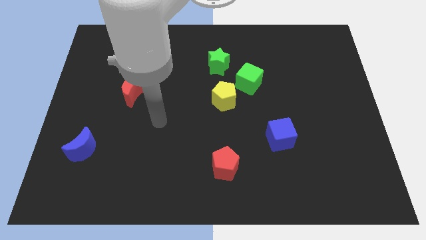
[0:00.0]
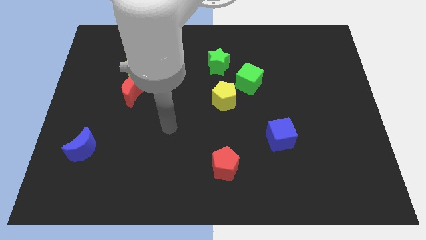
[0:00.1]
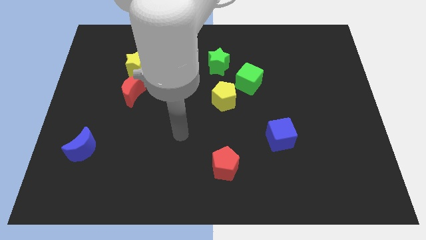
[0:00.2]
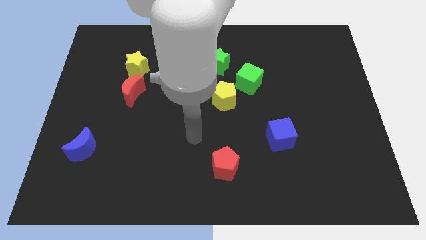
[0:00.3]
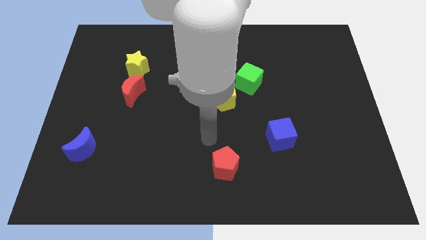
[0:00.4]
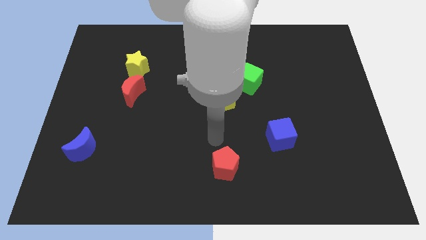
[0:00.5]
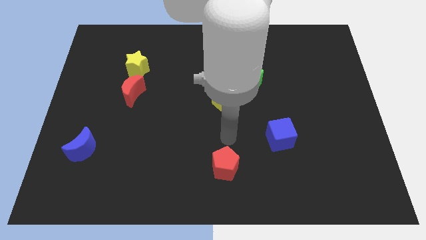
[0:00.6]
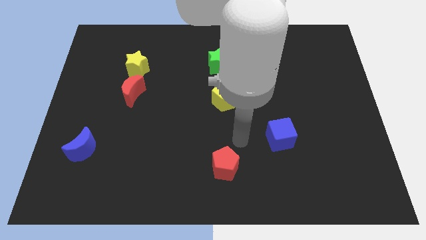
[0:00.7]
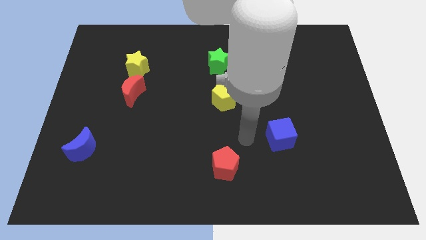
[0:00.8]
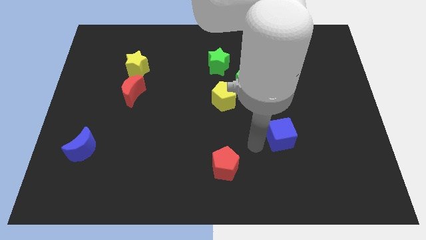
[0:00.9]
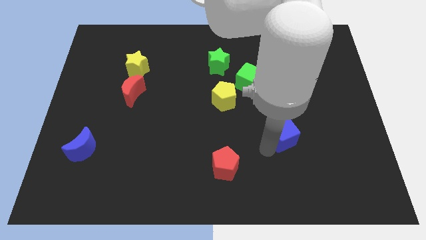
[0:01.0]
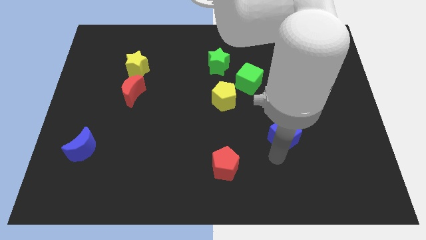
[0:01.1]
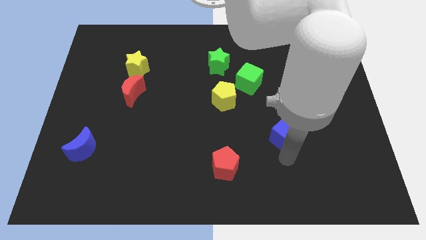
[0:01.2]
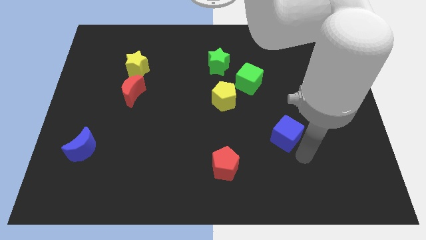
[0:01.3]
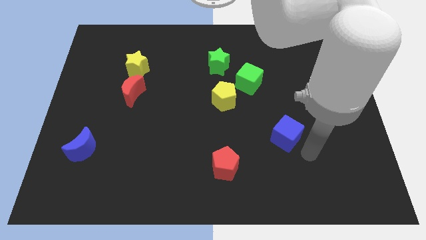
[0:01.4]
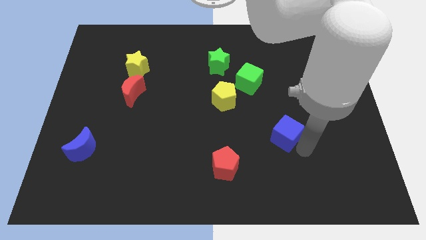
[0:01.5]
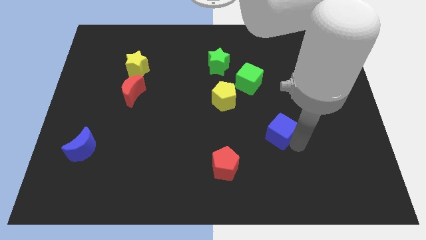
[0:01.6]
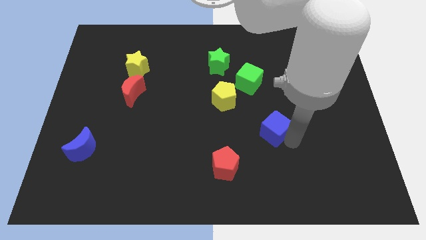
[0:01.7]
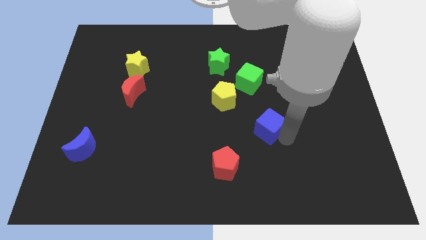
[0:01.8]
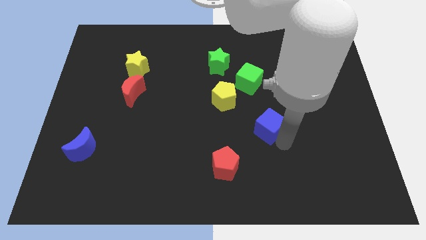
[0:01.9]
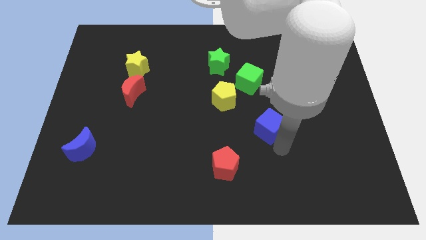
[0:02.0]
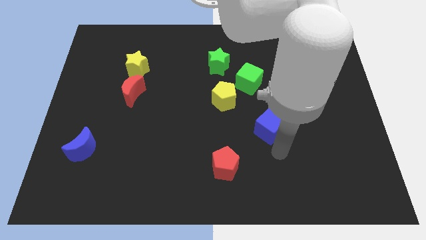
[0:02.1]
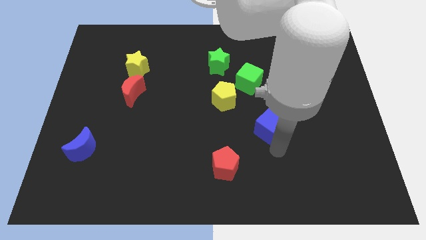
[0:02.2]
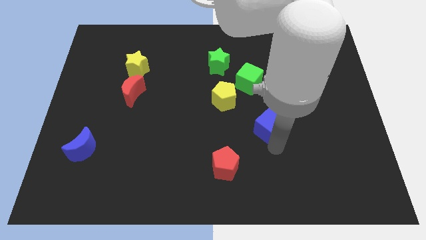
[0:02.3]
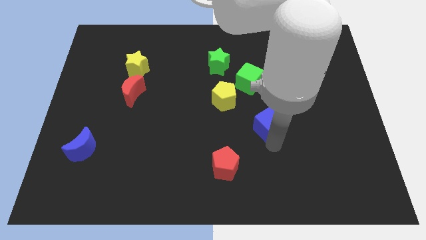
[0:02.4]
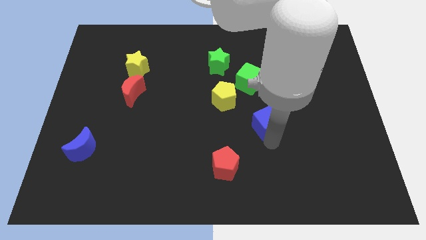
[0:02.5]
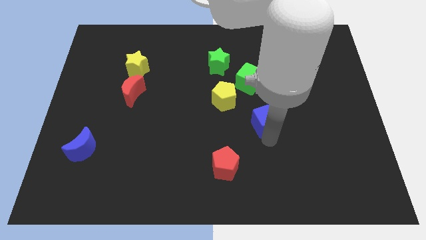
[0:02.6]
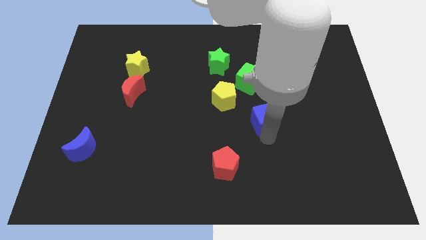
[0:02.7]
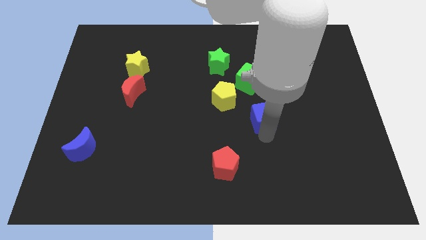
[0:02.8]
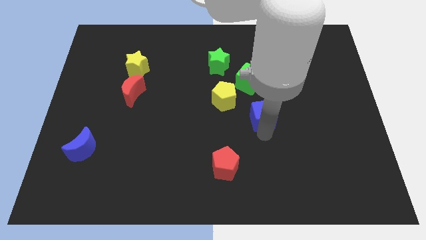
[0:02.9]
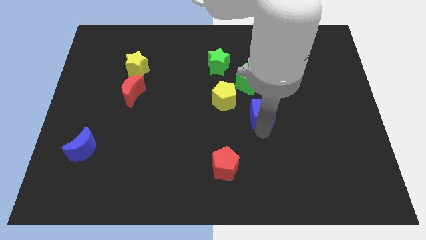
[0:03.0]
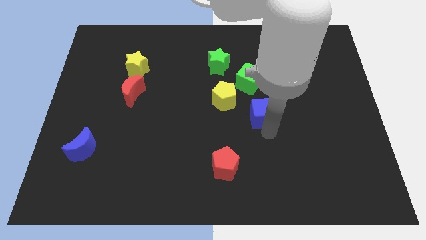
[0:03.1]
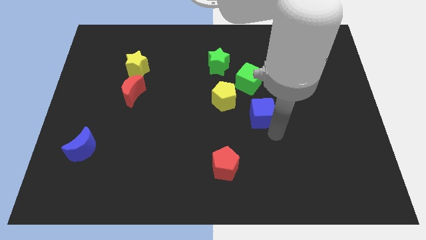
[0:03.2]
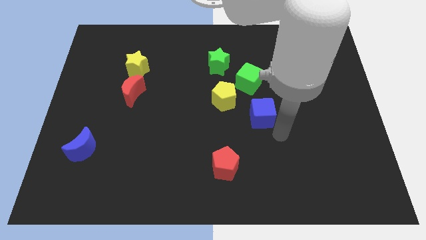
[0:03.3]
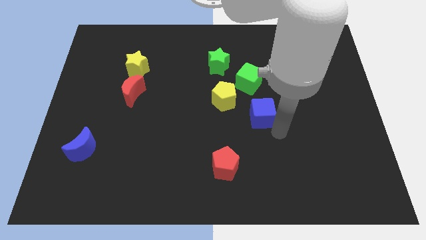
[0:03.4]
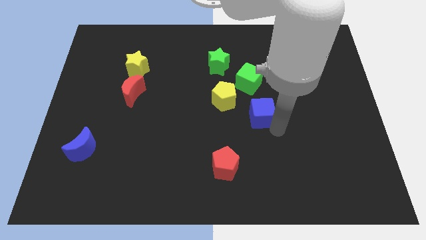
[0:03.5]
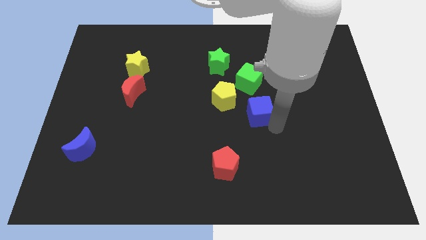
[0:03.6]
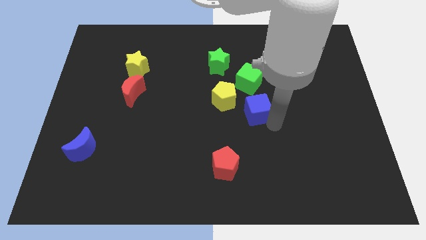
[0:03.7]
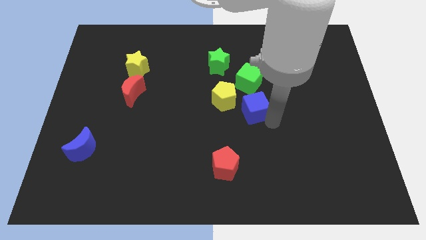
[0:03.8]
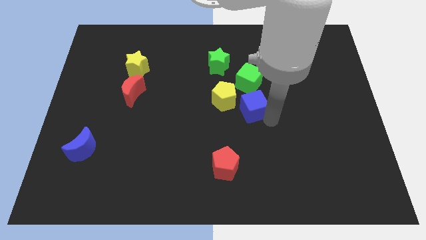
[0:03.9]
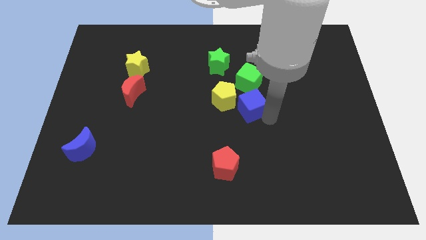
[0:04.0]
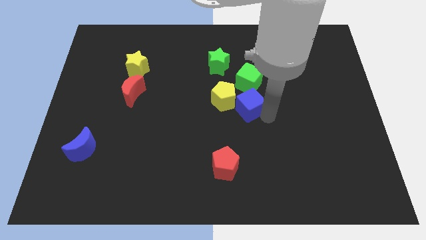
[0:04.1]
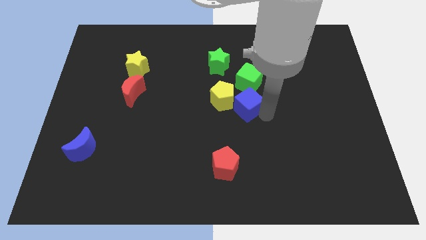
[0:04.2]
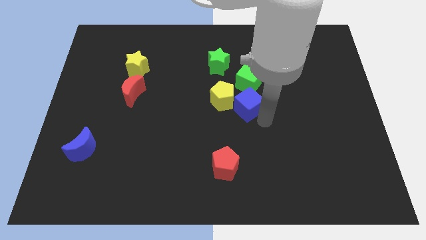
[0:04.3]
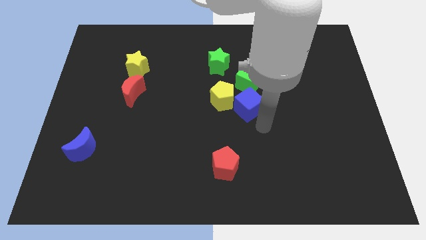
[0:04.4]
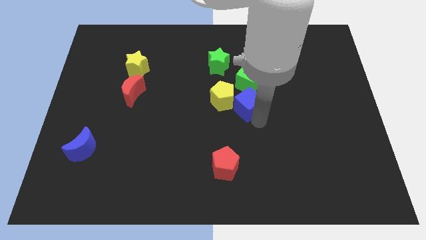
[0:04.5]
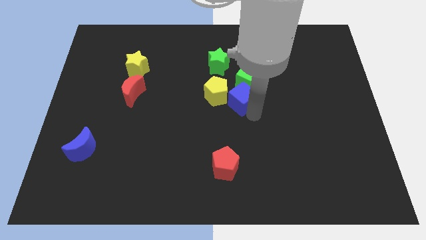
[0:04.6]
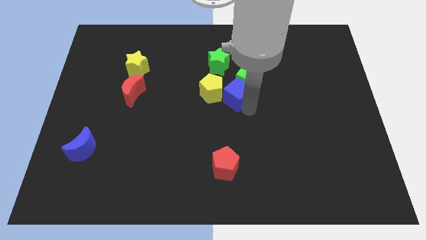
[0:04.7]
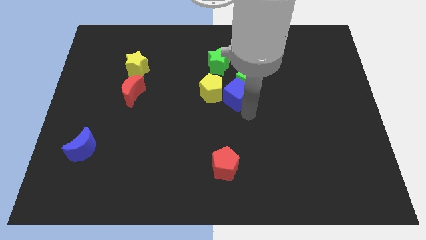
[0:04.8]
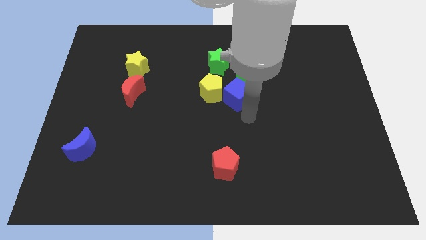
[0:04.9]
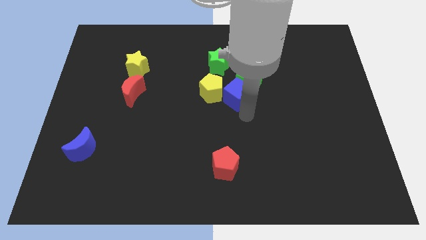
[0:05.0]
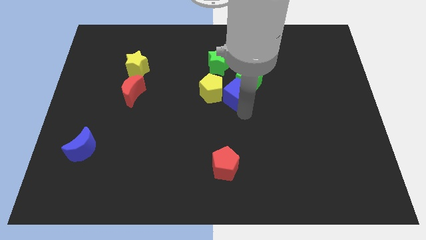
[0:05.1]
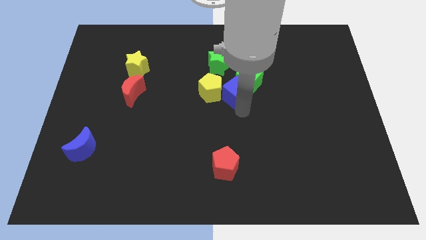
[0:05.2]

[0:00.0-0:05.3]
move the blue cube just left of the green cube

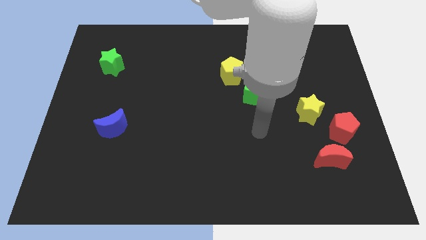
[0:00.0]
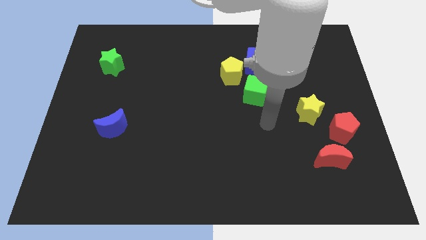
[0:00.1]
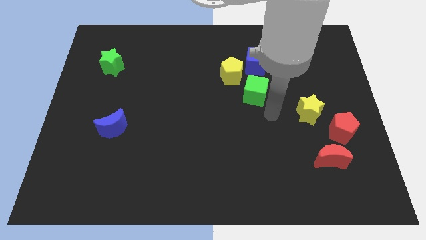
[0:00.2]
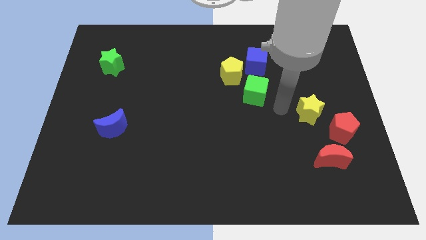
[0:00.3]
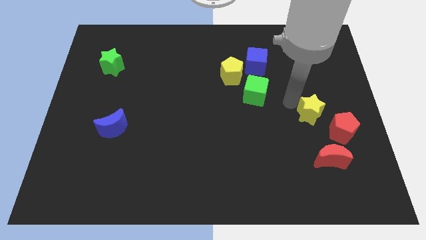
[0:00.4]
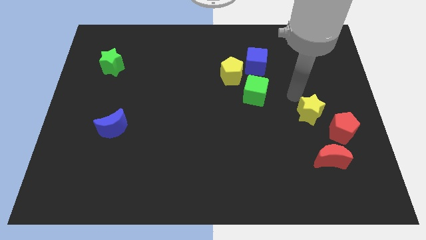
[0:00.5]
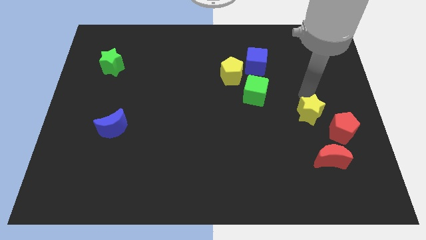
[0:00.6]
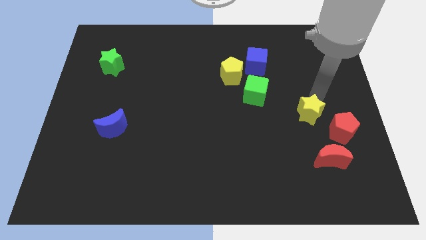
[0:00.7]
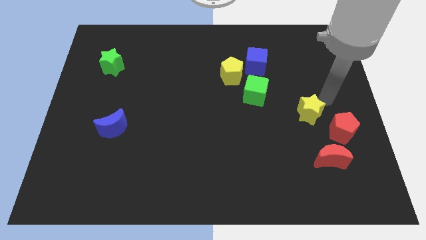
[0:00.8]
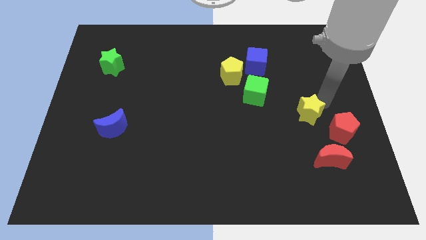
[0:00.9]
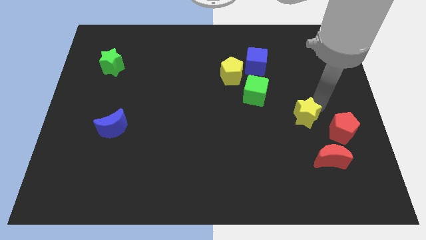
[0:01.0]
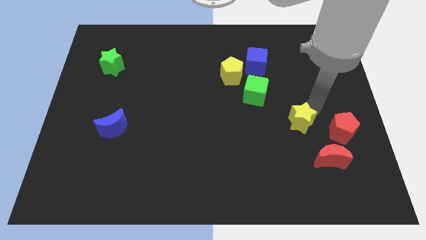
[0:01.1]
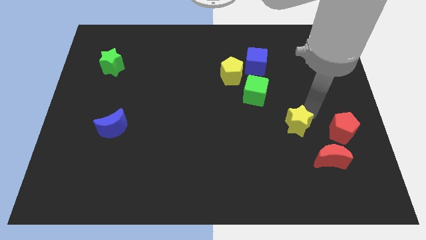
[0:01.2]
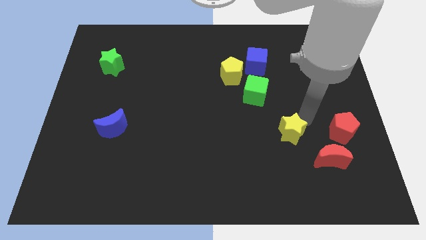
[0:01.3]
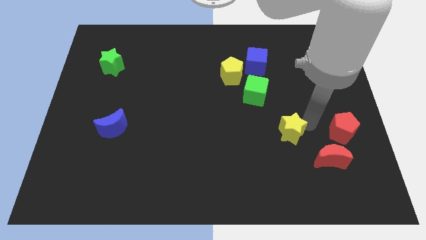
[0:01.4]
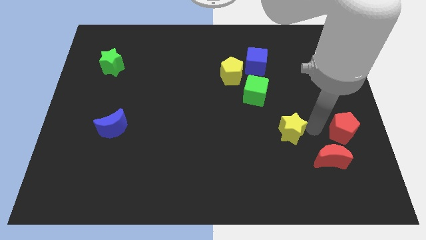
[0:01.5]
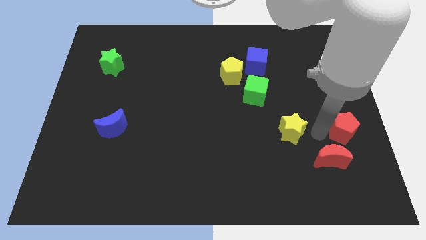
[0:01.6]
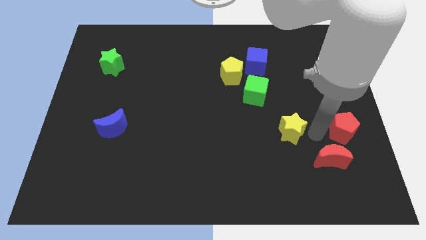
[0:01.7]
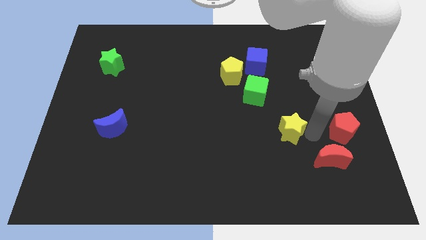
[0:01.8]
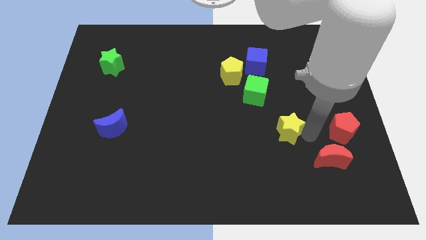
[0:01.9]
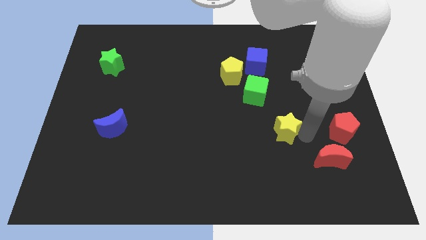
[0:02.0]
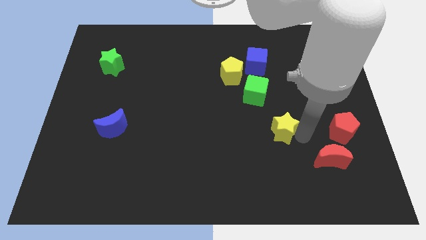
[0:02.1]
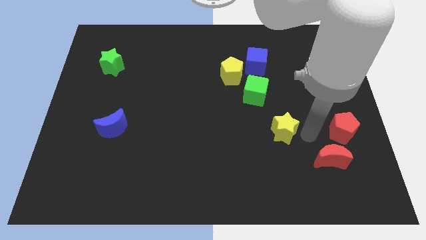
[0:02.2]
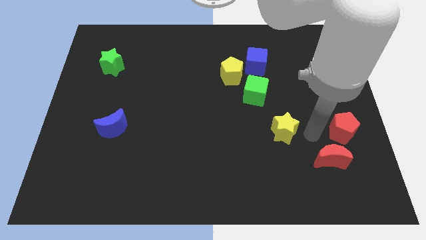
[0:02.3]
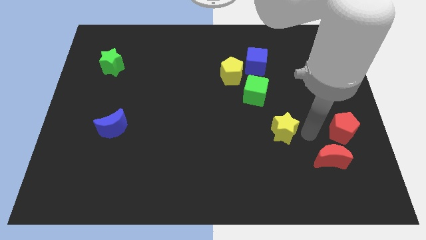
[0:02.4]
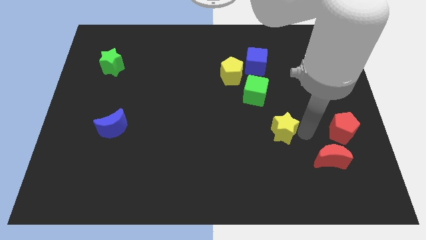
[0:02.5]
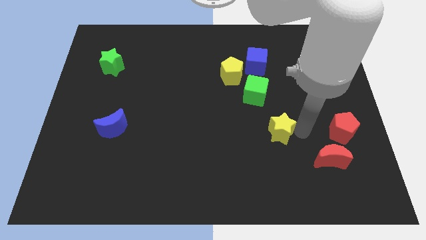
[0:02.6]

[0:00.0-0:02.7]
push the yellow star below the green cube
